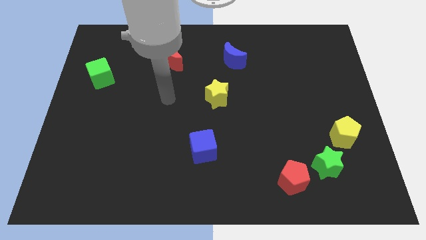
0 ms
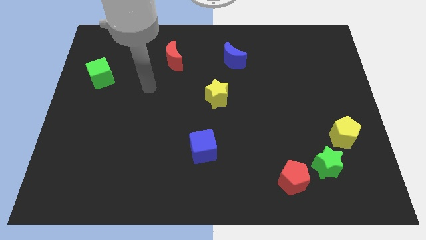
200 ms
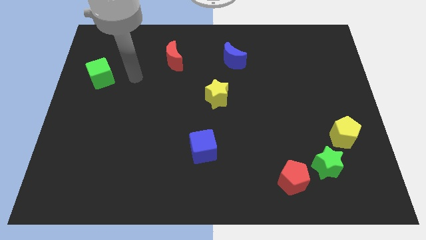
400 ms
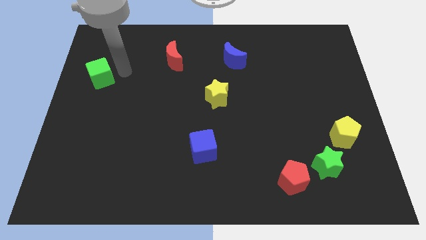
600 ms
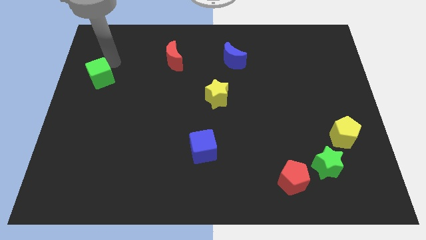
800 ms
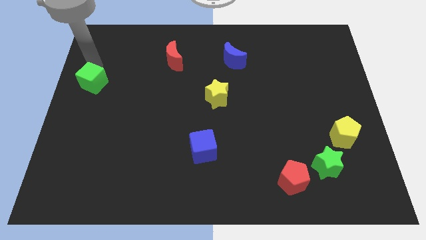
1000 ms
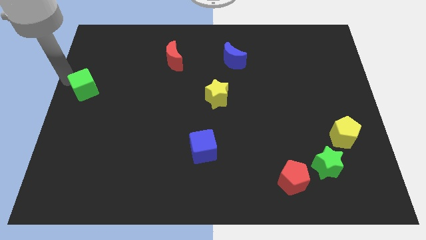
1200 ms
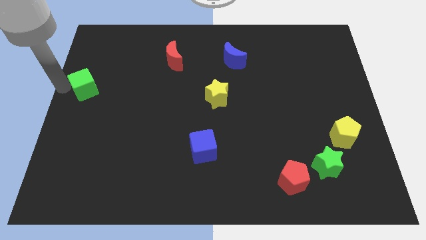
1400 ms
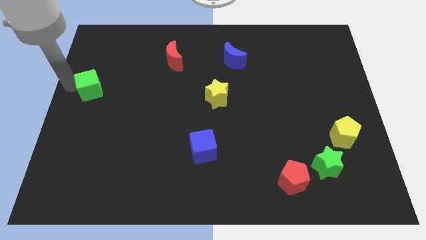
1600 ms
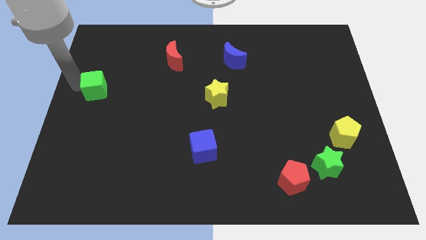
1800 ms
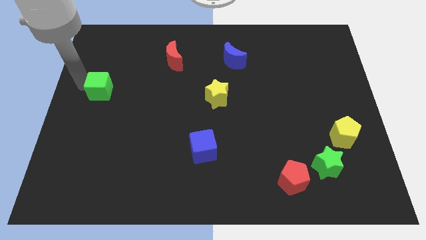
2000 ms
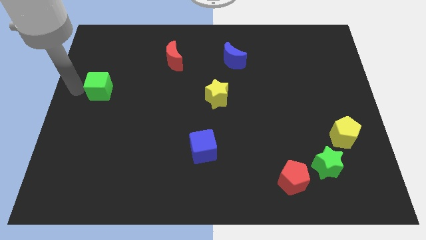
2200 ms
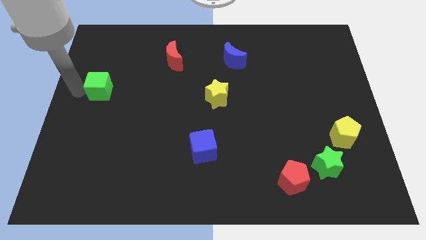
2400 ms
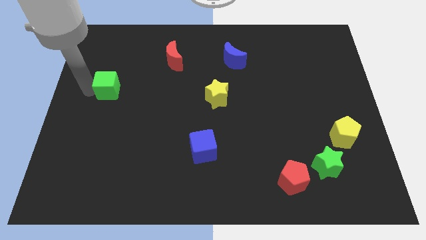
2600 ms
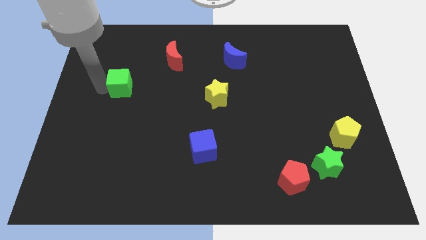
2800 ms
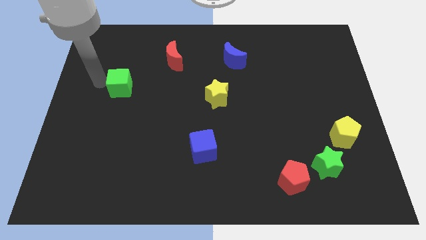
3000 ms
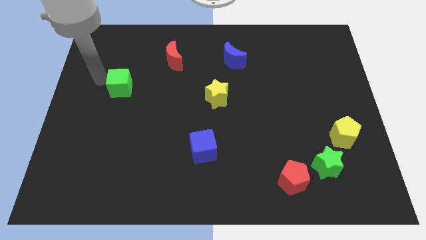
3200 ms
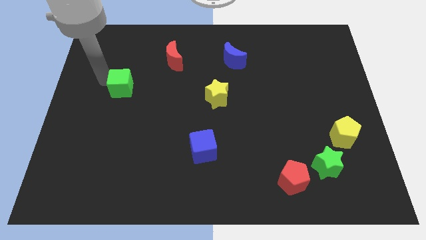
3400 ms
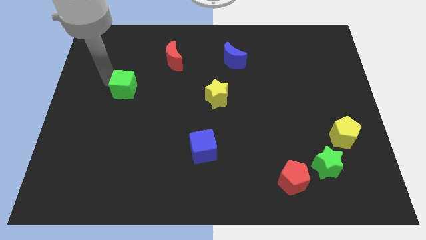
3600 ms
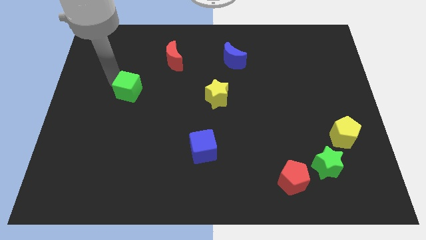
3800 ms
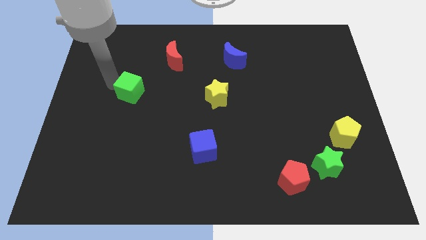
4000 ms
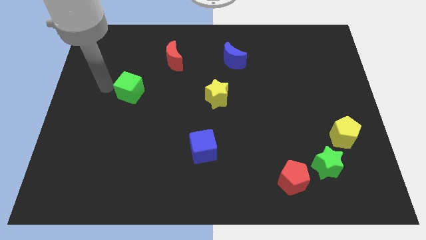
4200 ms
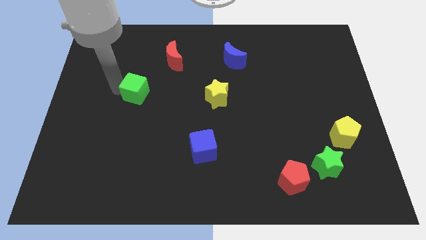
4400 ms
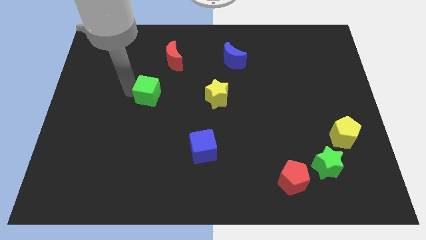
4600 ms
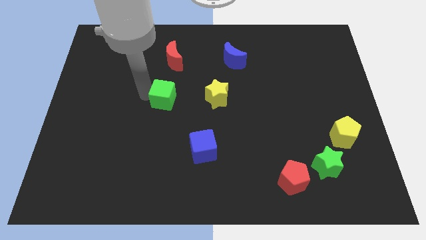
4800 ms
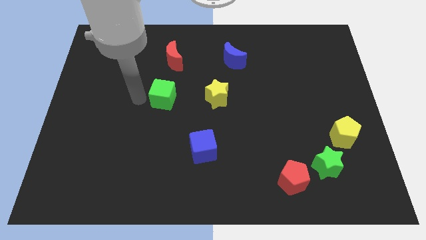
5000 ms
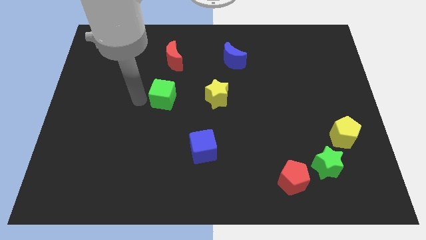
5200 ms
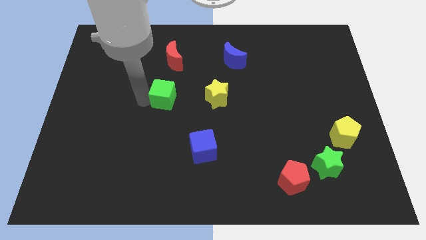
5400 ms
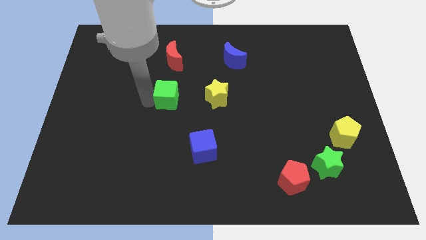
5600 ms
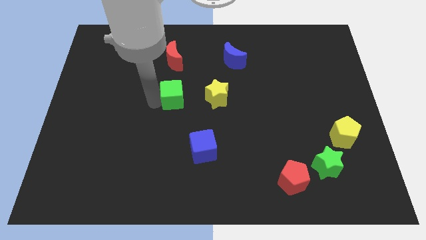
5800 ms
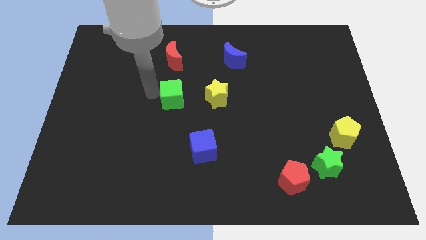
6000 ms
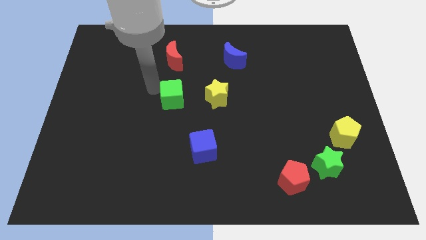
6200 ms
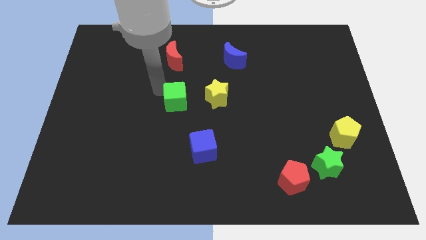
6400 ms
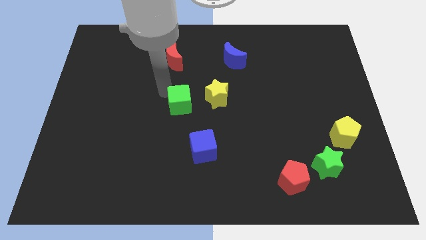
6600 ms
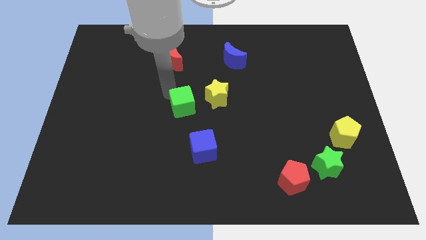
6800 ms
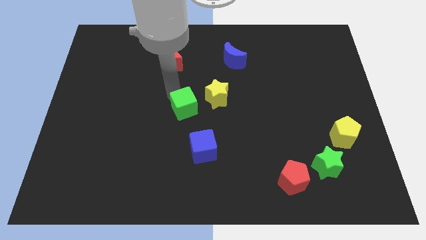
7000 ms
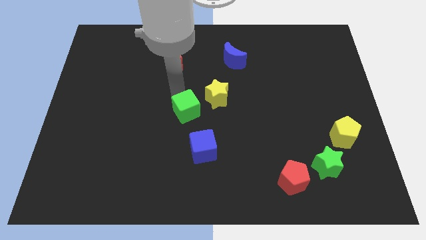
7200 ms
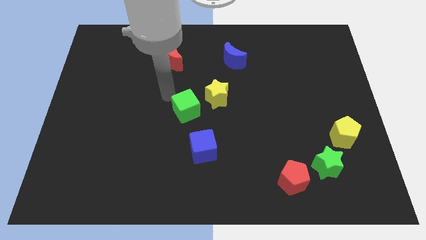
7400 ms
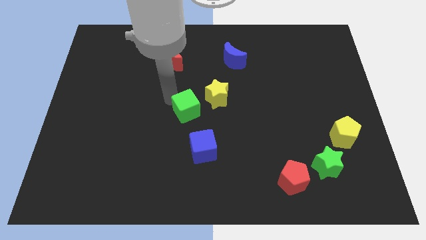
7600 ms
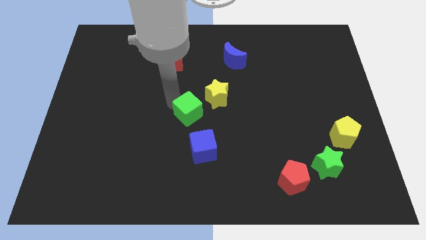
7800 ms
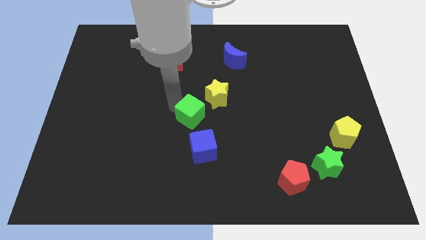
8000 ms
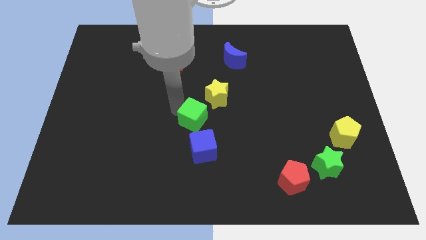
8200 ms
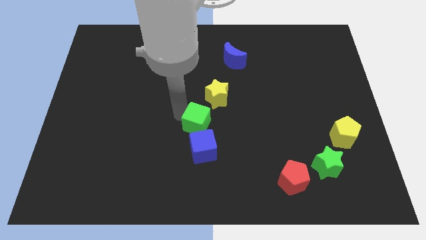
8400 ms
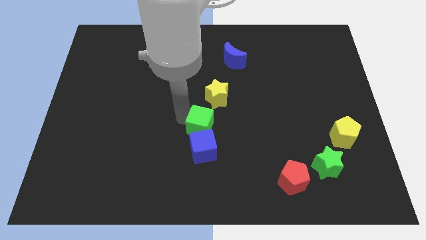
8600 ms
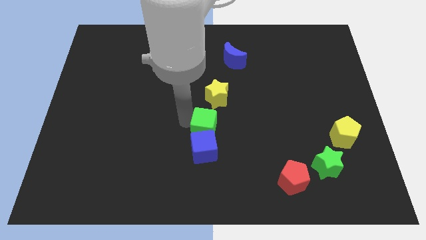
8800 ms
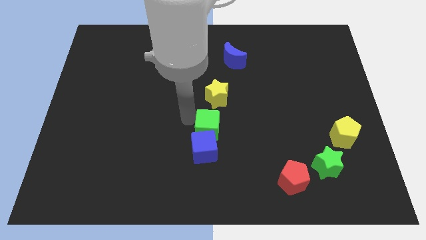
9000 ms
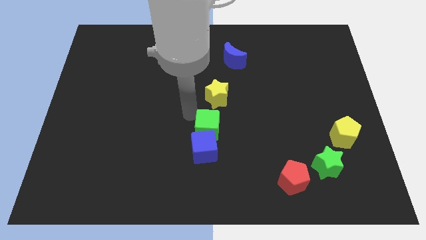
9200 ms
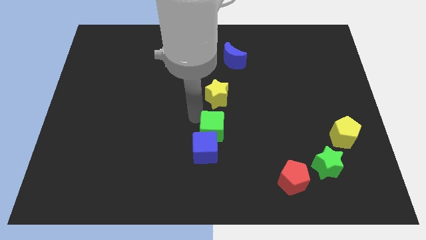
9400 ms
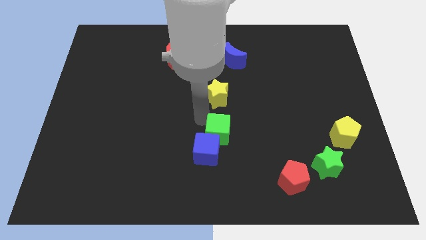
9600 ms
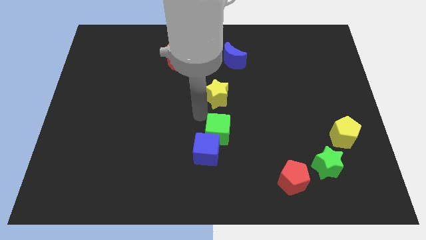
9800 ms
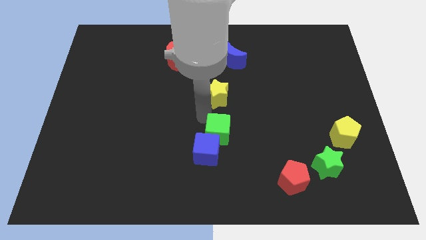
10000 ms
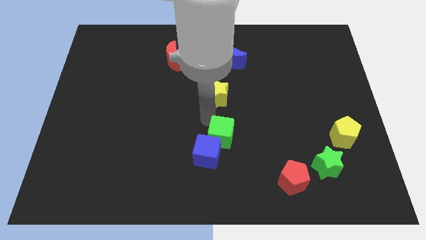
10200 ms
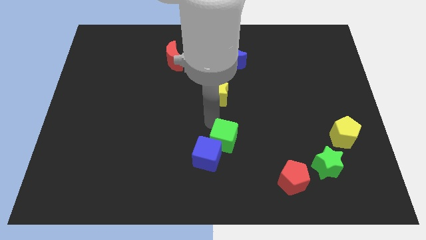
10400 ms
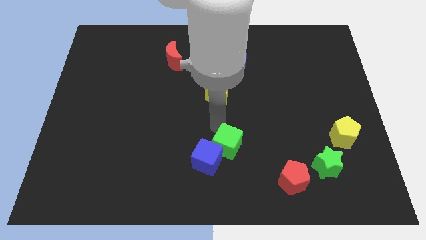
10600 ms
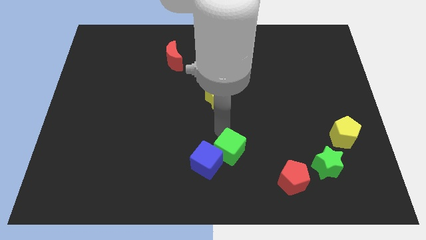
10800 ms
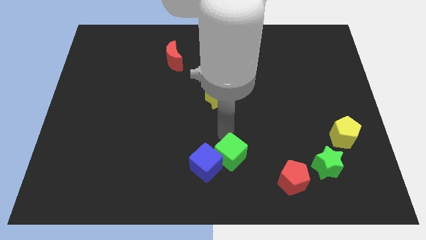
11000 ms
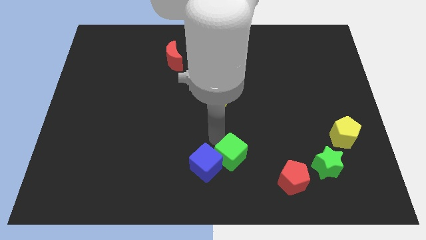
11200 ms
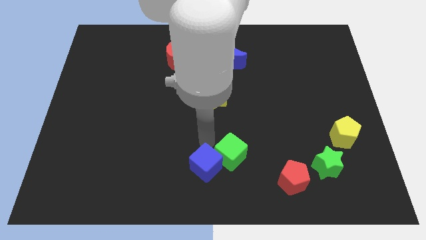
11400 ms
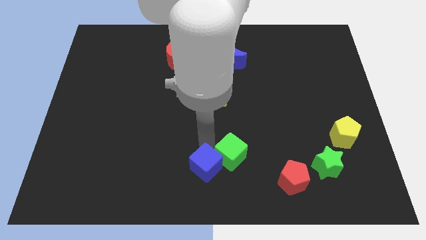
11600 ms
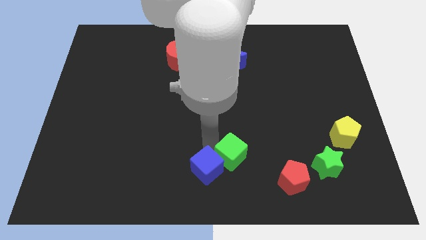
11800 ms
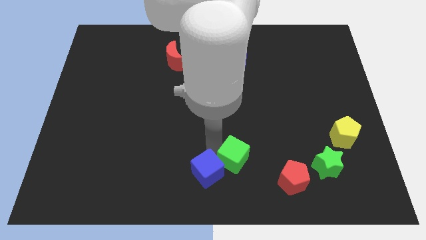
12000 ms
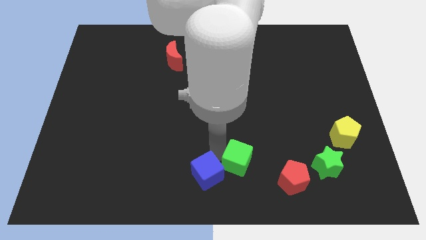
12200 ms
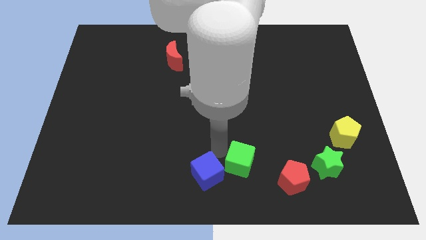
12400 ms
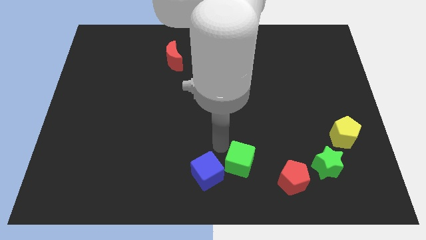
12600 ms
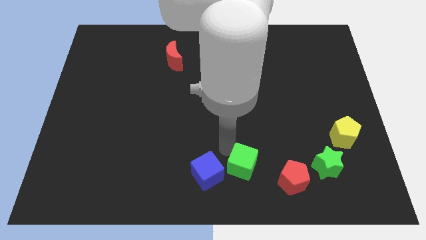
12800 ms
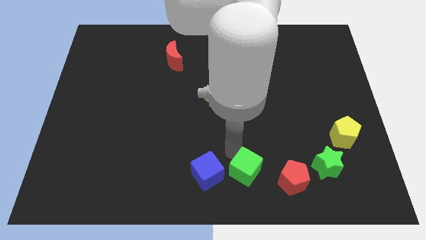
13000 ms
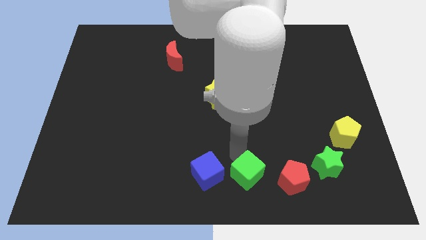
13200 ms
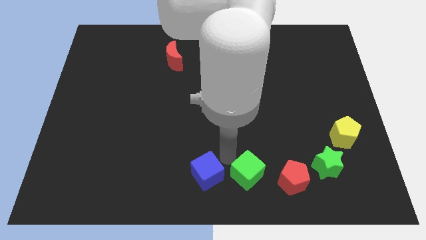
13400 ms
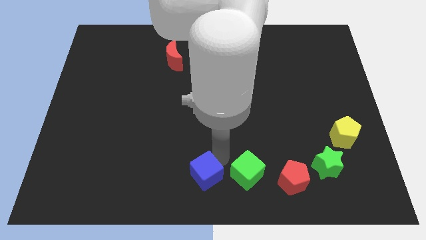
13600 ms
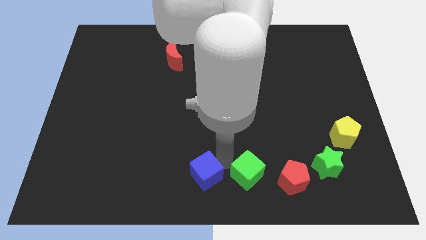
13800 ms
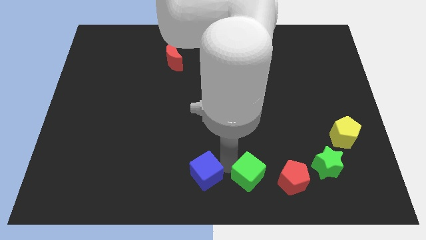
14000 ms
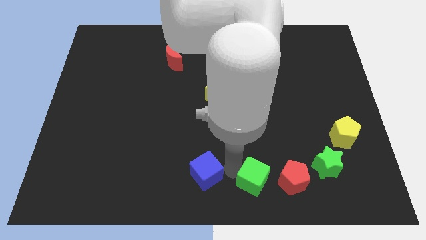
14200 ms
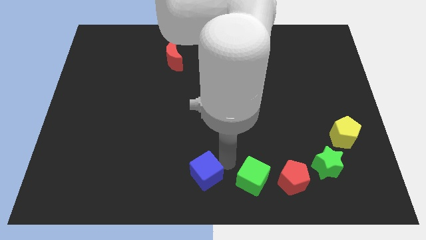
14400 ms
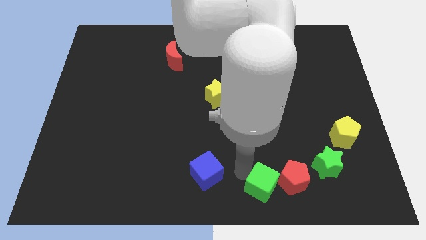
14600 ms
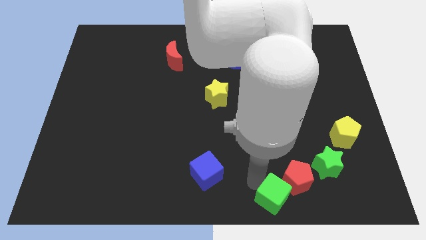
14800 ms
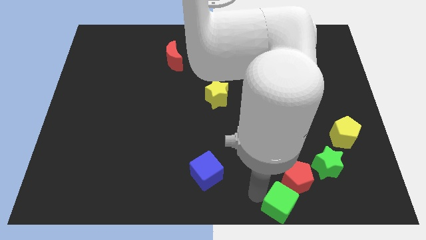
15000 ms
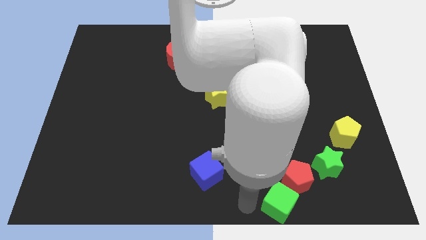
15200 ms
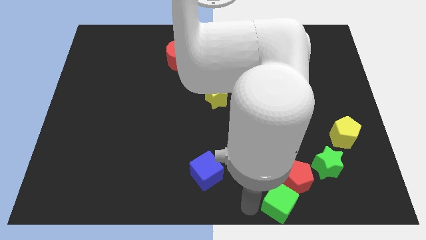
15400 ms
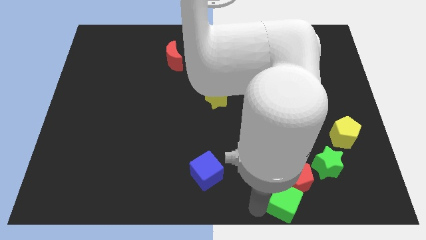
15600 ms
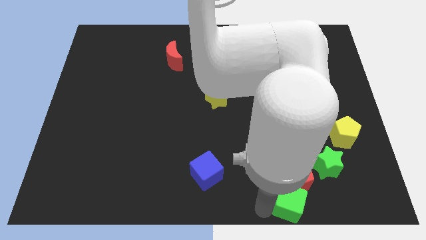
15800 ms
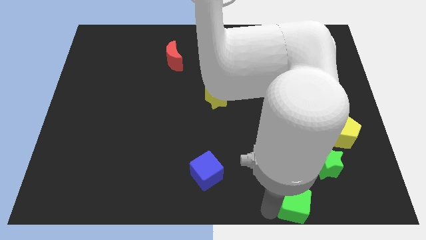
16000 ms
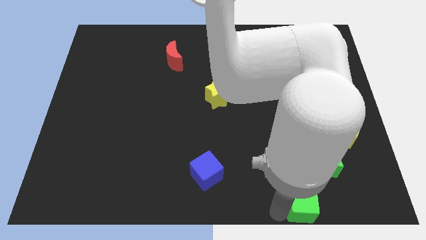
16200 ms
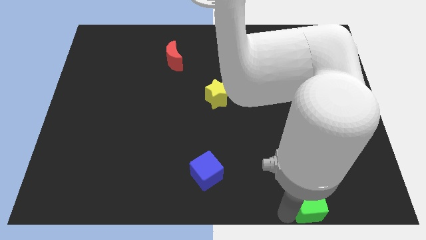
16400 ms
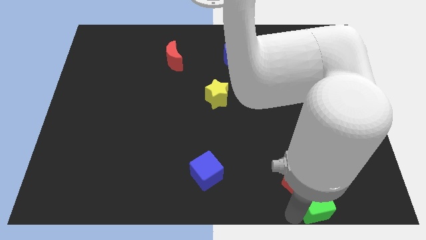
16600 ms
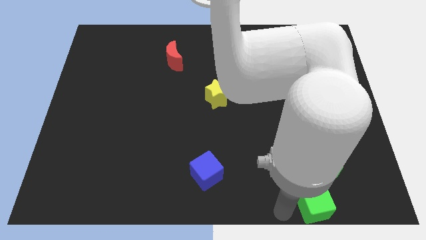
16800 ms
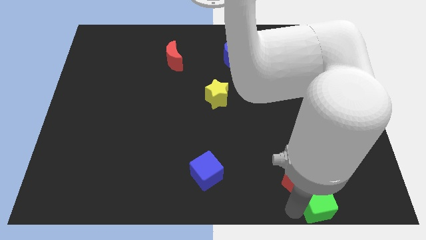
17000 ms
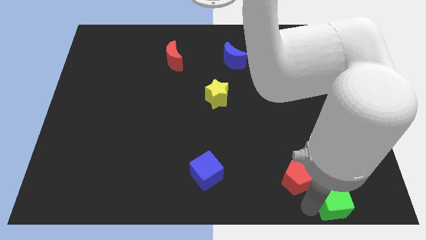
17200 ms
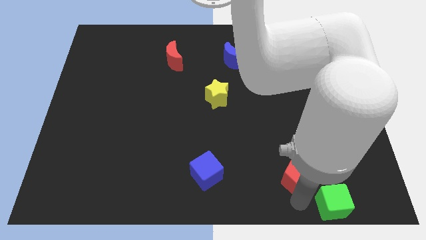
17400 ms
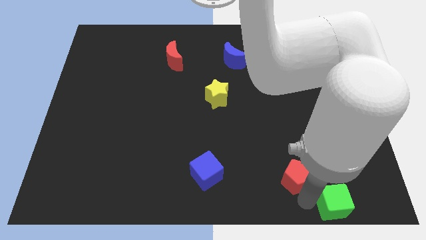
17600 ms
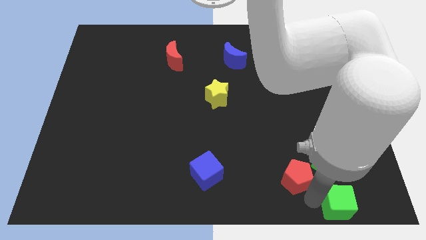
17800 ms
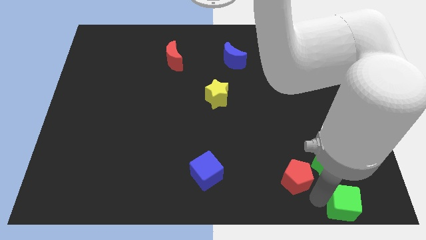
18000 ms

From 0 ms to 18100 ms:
push the green cube to the bottom right corner
